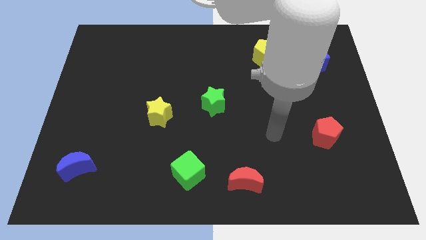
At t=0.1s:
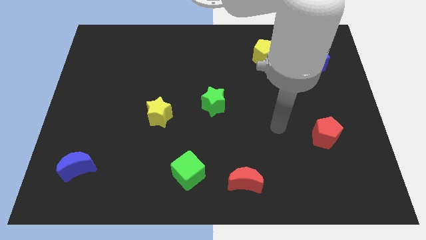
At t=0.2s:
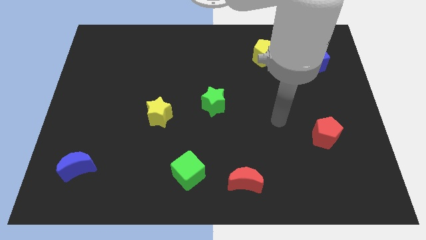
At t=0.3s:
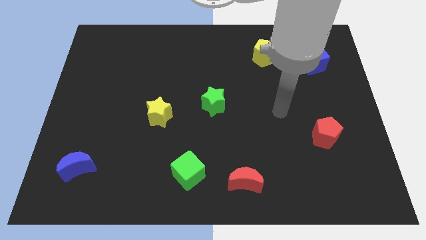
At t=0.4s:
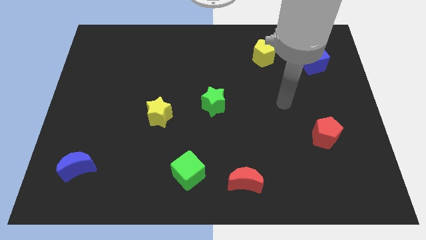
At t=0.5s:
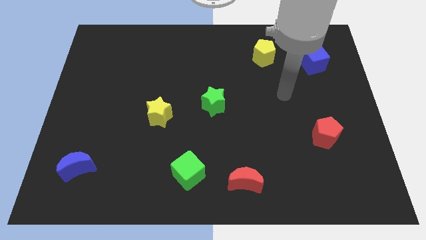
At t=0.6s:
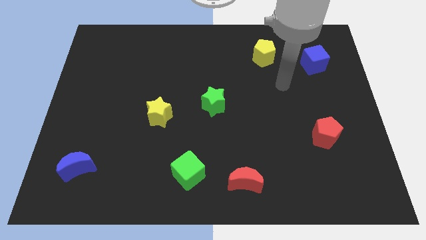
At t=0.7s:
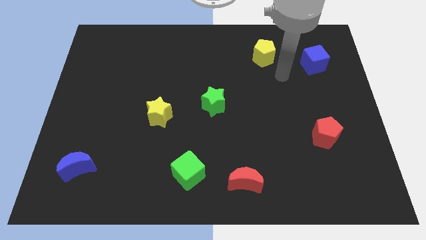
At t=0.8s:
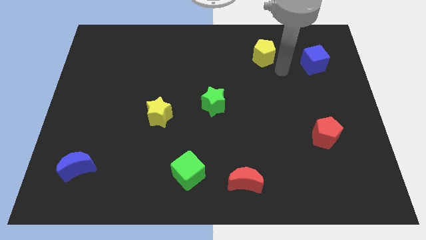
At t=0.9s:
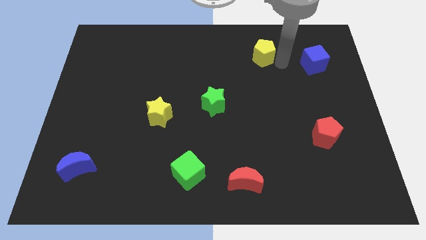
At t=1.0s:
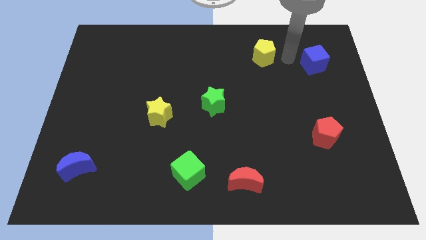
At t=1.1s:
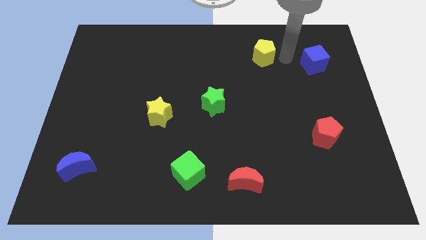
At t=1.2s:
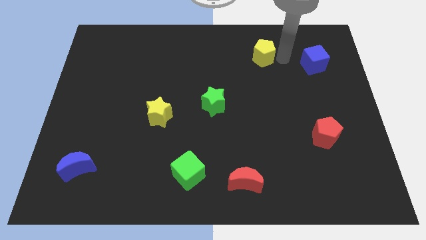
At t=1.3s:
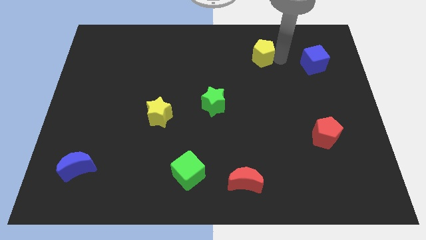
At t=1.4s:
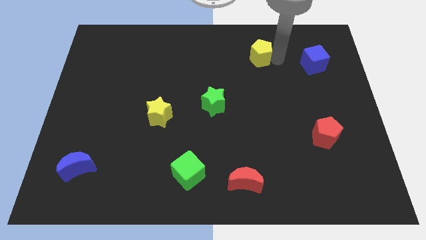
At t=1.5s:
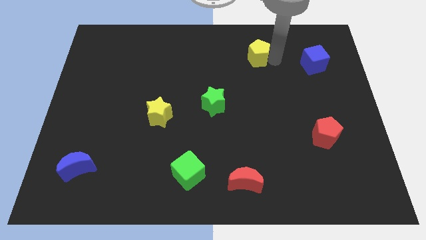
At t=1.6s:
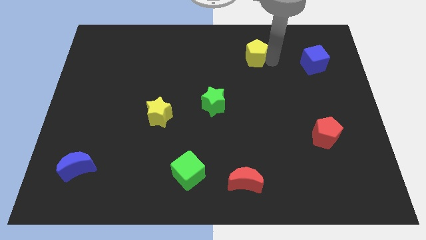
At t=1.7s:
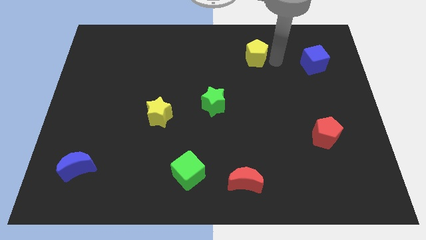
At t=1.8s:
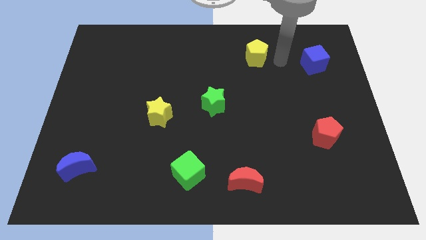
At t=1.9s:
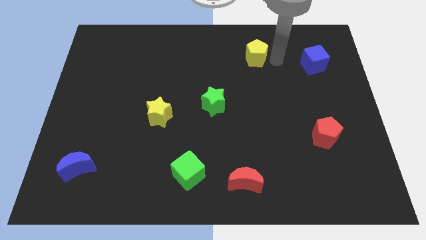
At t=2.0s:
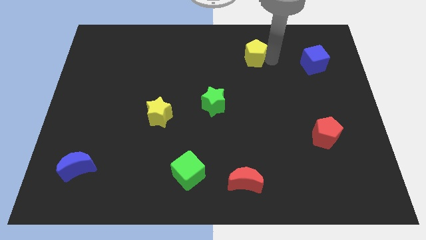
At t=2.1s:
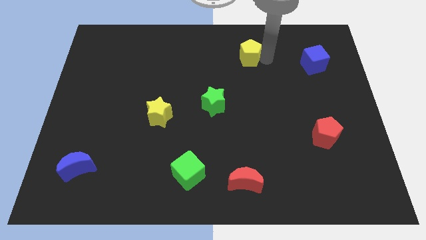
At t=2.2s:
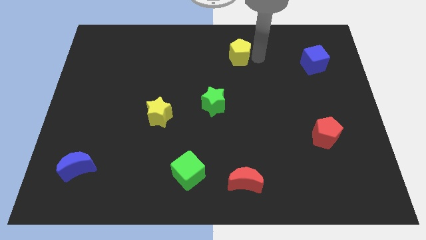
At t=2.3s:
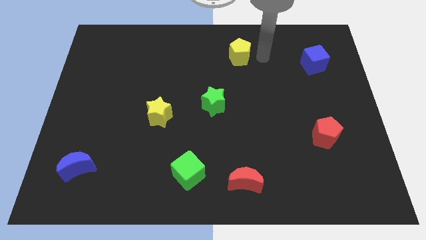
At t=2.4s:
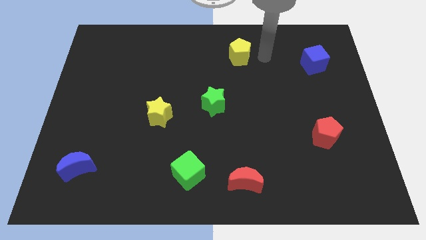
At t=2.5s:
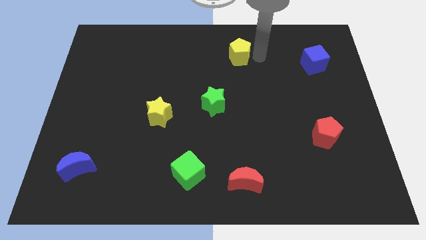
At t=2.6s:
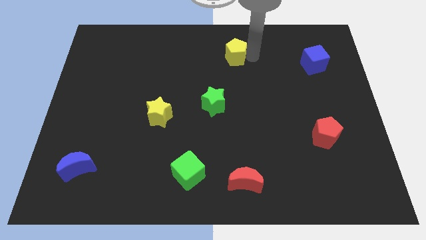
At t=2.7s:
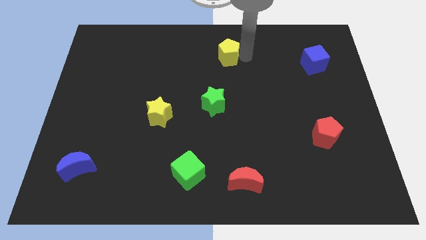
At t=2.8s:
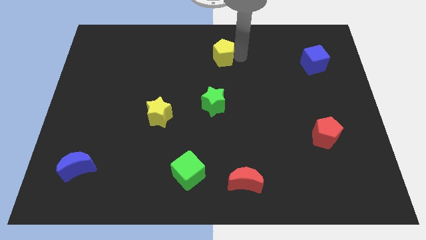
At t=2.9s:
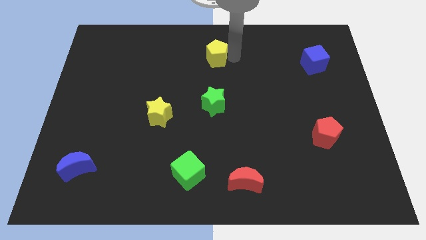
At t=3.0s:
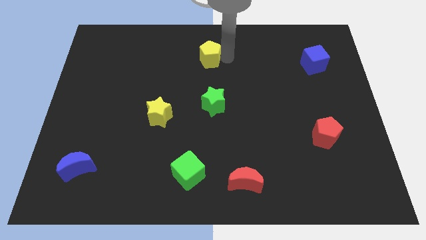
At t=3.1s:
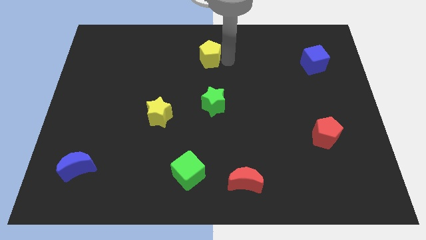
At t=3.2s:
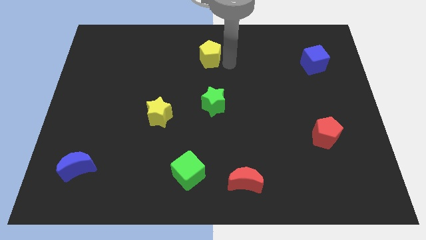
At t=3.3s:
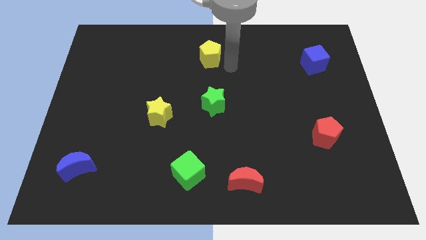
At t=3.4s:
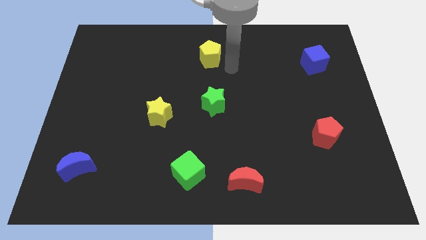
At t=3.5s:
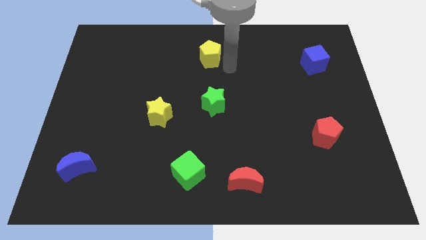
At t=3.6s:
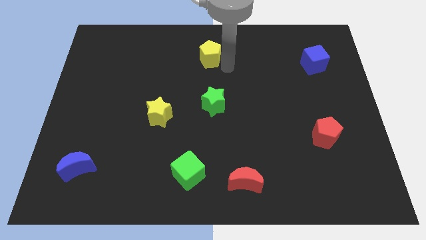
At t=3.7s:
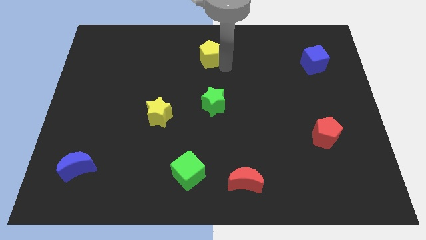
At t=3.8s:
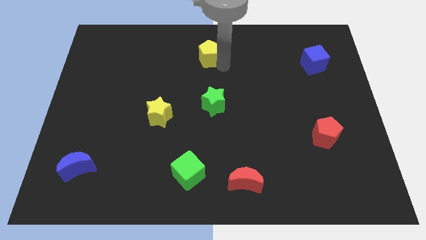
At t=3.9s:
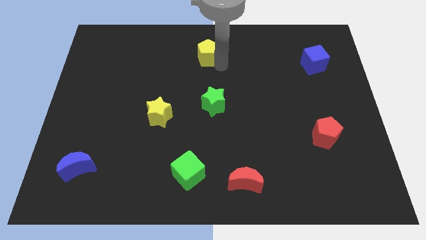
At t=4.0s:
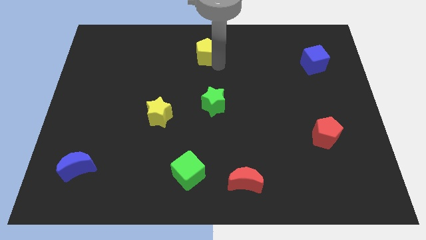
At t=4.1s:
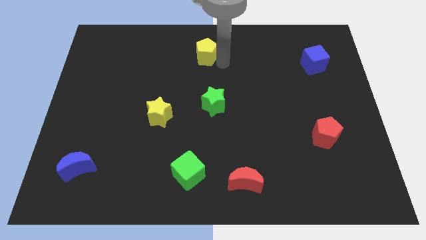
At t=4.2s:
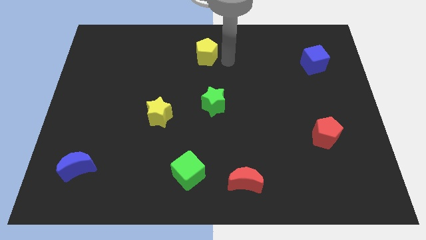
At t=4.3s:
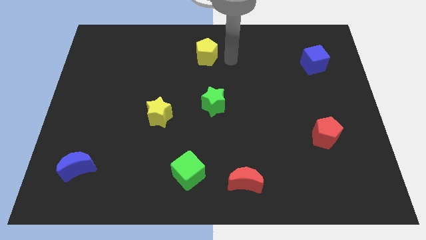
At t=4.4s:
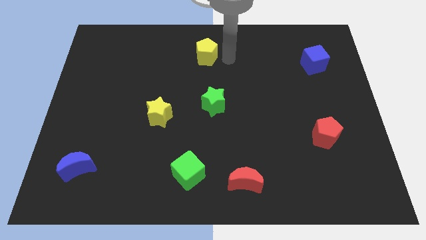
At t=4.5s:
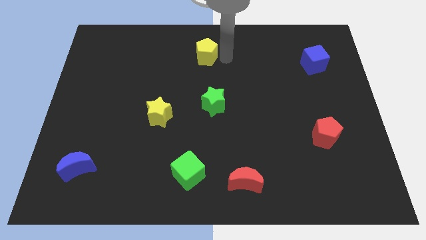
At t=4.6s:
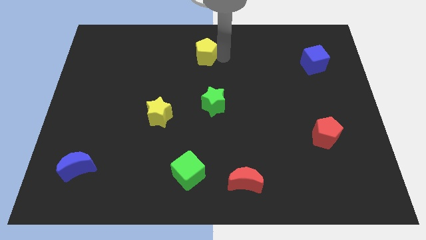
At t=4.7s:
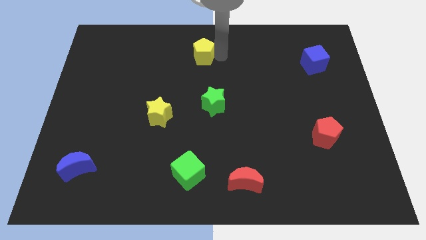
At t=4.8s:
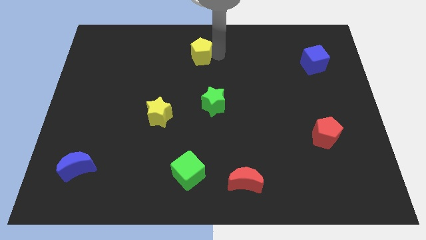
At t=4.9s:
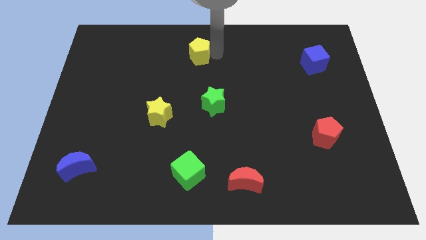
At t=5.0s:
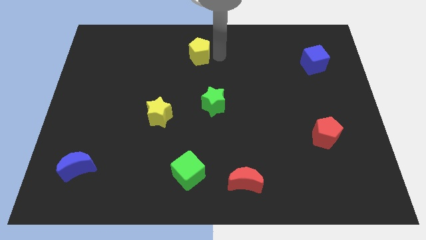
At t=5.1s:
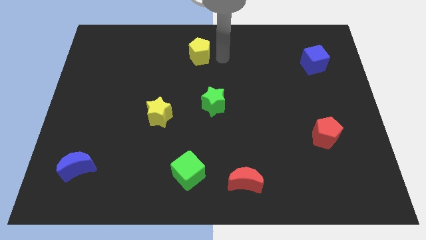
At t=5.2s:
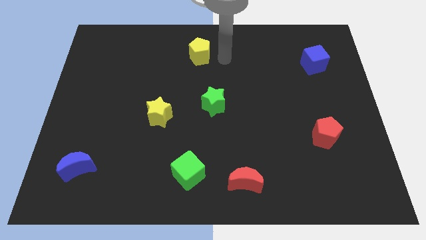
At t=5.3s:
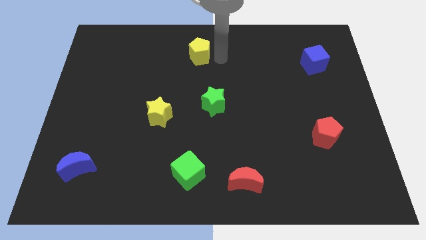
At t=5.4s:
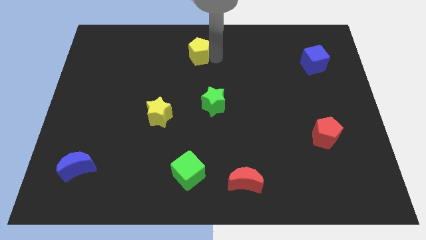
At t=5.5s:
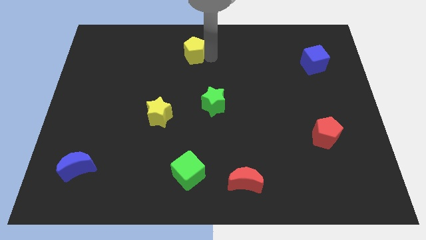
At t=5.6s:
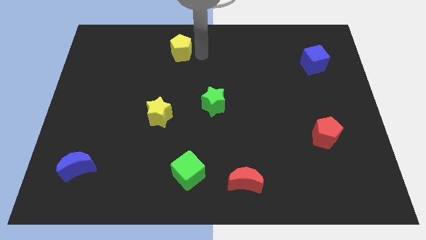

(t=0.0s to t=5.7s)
move the yellow pentagon left

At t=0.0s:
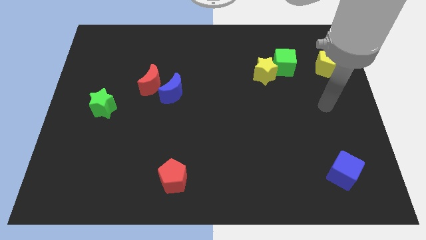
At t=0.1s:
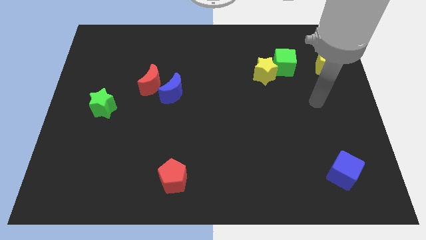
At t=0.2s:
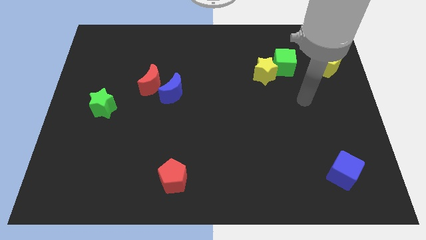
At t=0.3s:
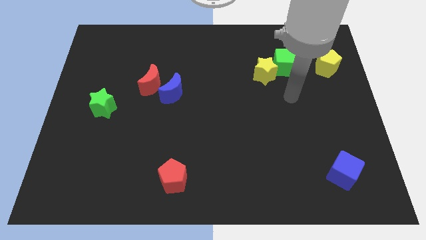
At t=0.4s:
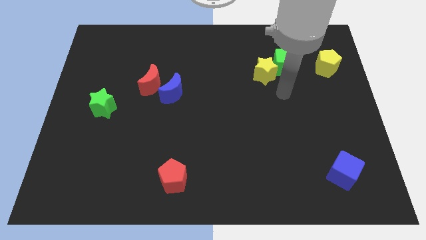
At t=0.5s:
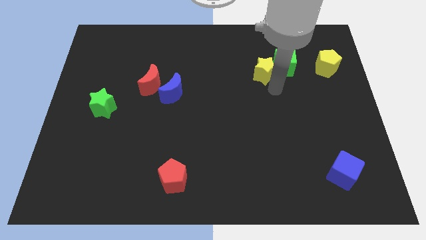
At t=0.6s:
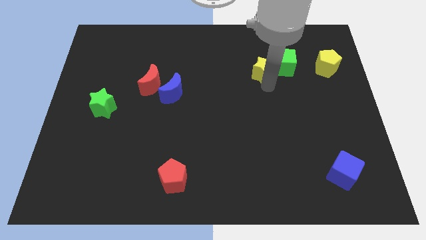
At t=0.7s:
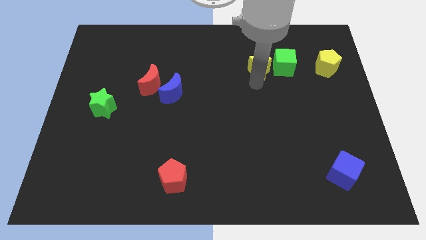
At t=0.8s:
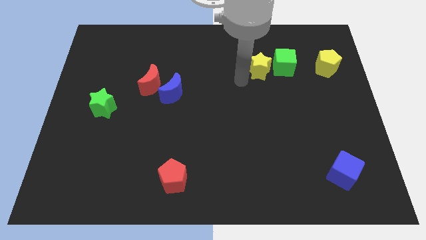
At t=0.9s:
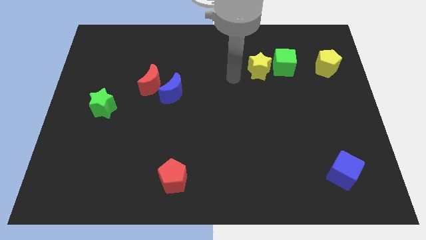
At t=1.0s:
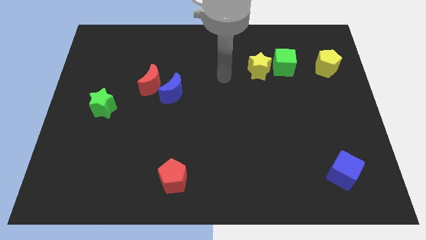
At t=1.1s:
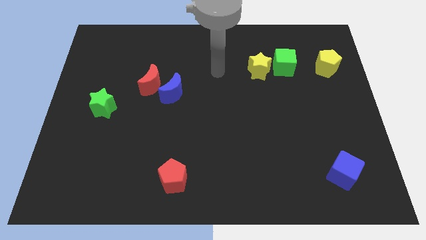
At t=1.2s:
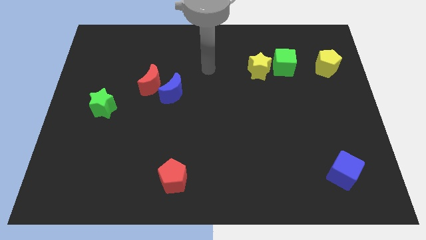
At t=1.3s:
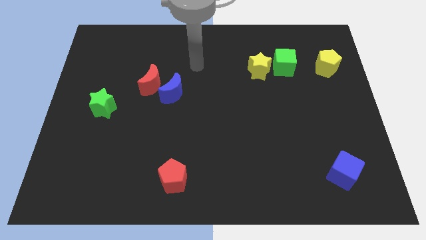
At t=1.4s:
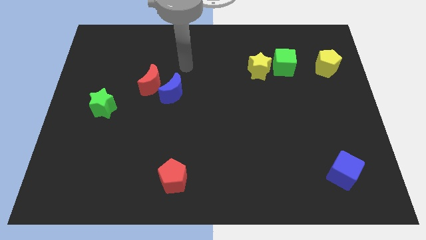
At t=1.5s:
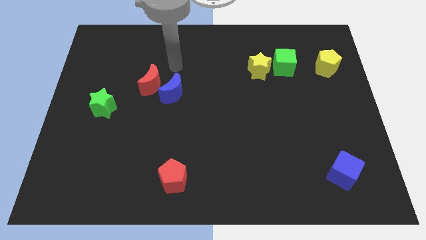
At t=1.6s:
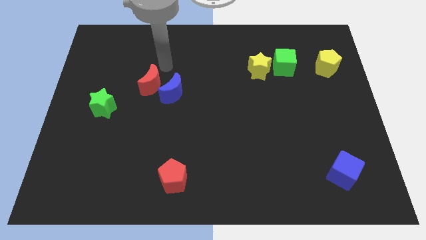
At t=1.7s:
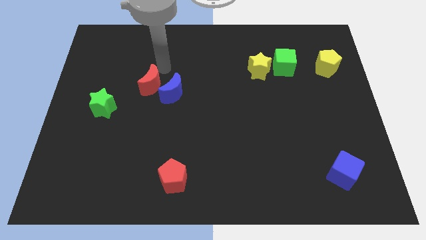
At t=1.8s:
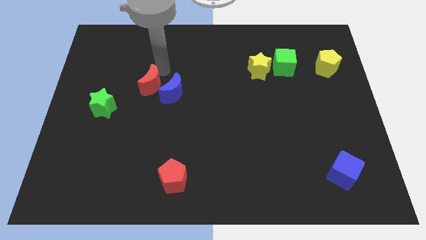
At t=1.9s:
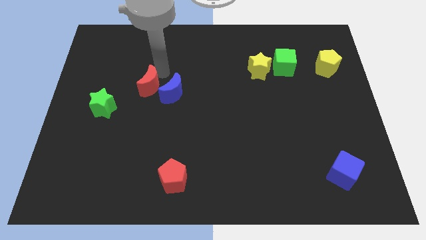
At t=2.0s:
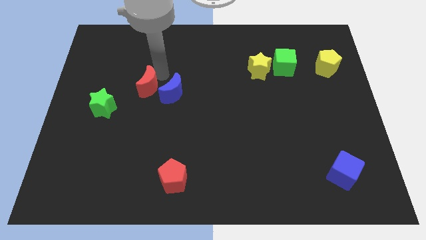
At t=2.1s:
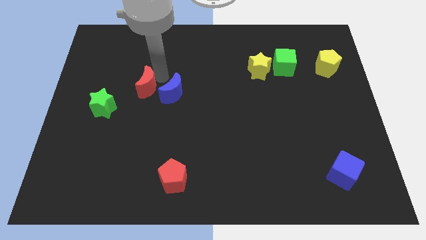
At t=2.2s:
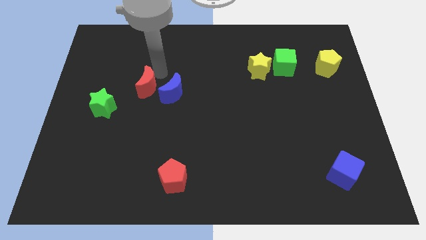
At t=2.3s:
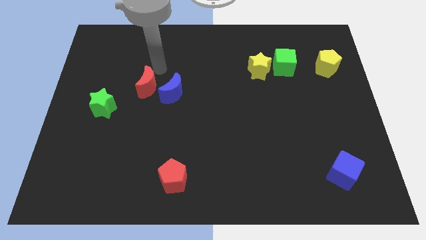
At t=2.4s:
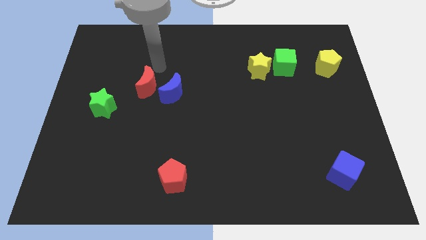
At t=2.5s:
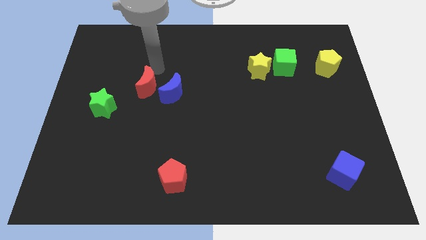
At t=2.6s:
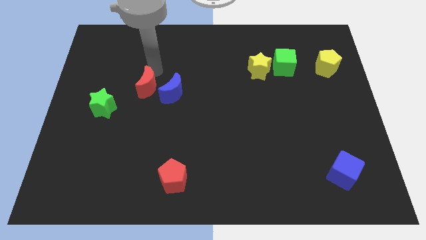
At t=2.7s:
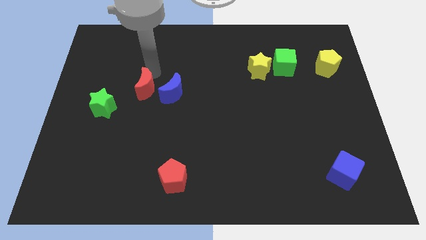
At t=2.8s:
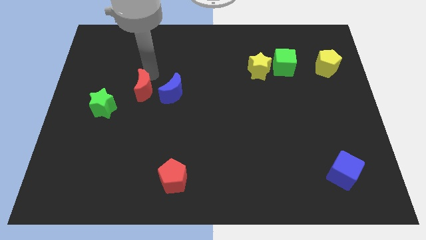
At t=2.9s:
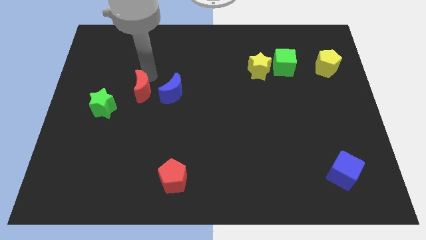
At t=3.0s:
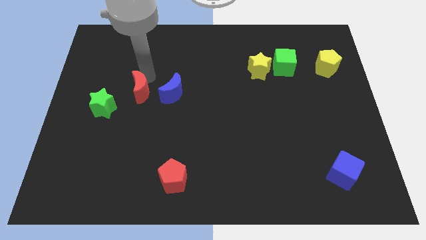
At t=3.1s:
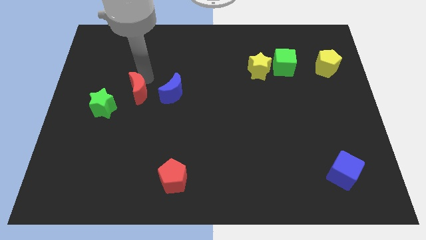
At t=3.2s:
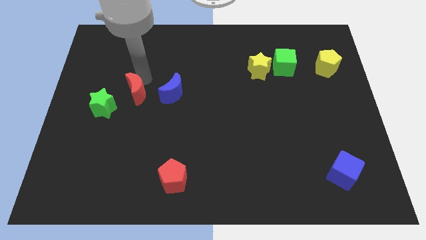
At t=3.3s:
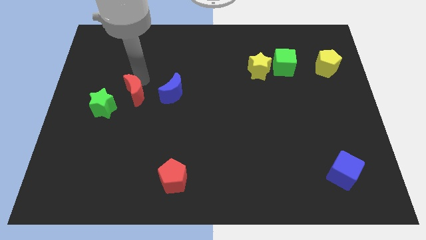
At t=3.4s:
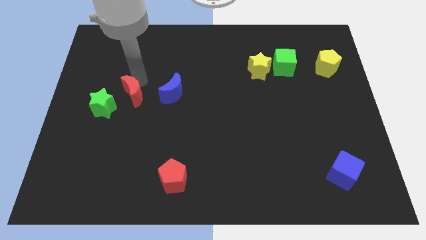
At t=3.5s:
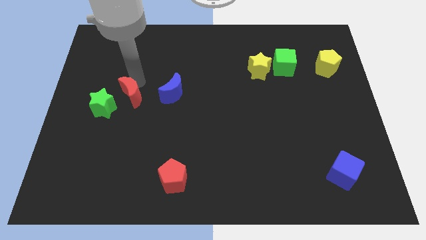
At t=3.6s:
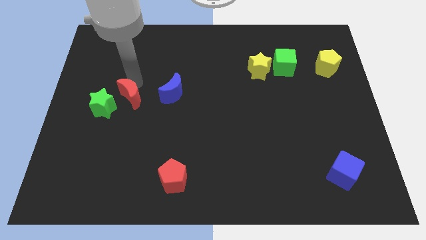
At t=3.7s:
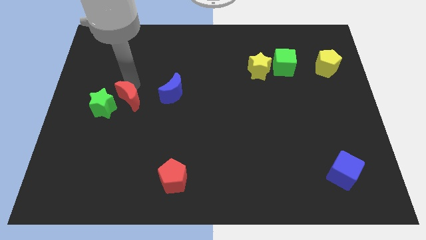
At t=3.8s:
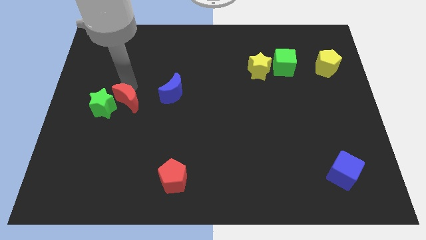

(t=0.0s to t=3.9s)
slide the red moon a bit downwards and then left
